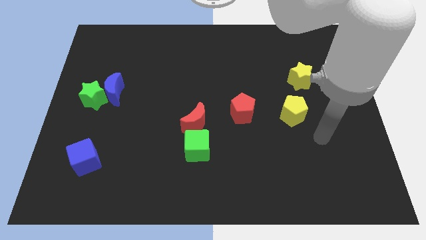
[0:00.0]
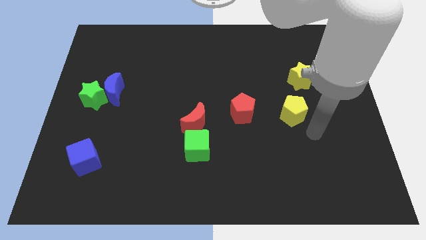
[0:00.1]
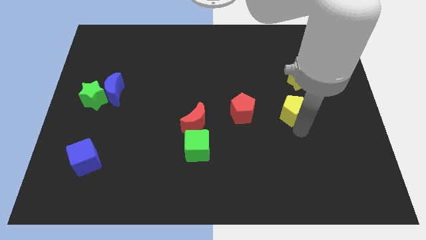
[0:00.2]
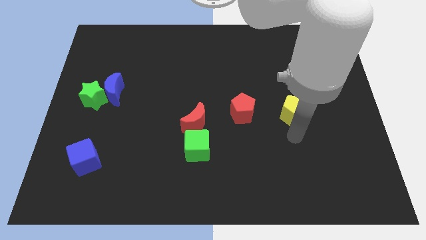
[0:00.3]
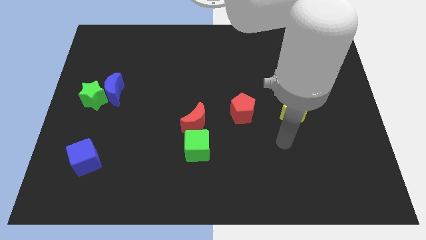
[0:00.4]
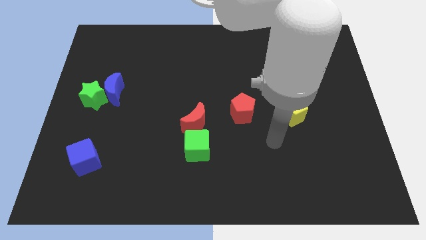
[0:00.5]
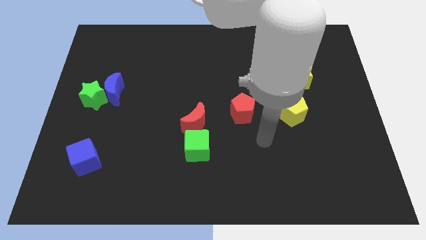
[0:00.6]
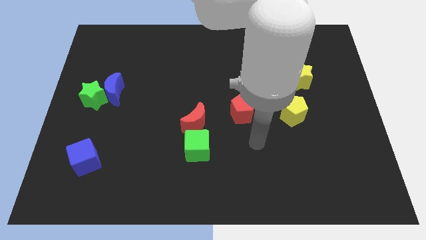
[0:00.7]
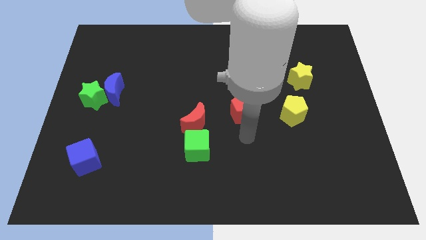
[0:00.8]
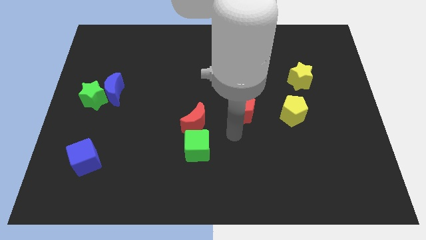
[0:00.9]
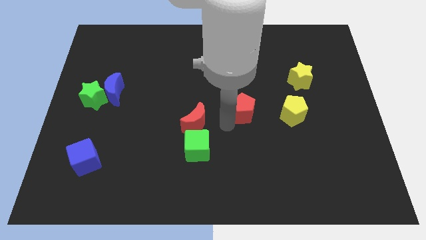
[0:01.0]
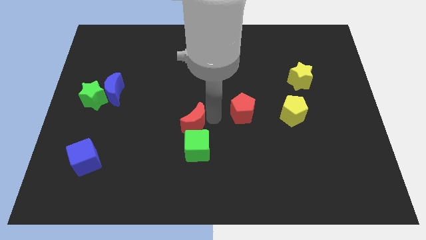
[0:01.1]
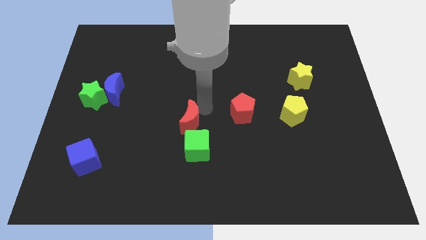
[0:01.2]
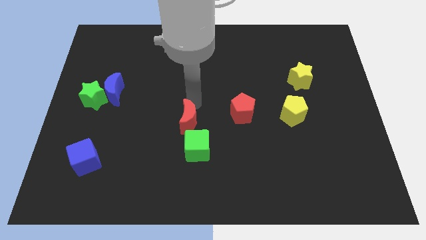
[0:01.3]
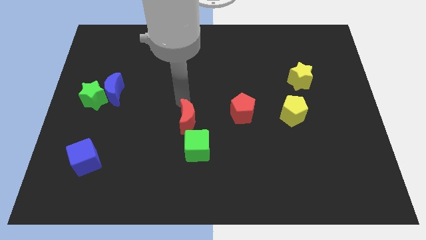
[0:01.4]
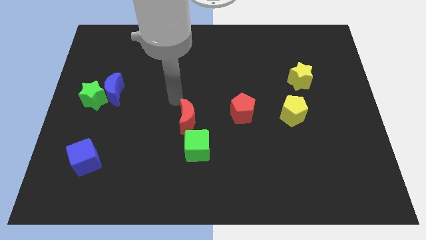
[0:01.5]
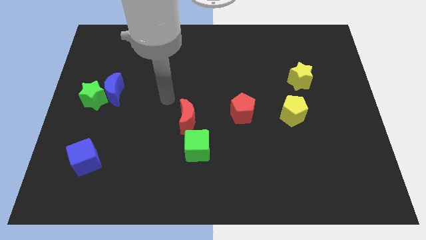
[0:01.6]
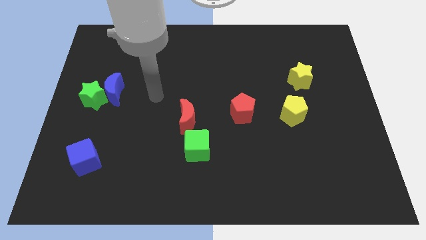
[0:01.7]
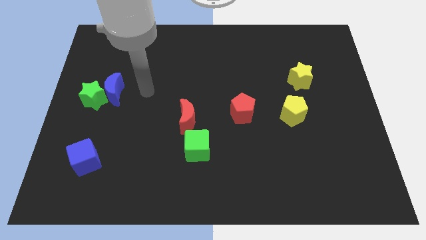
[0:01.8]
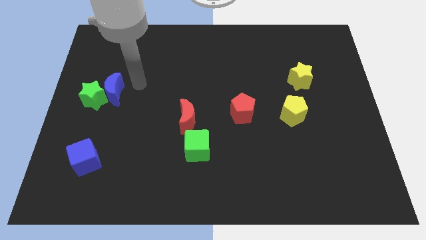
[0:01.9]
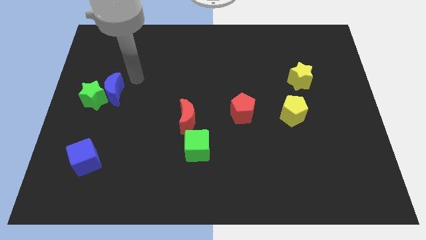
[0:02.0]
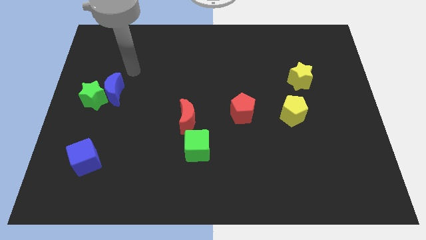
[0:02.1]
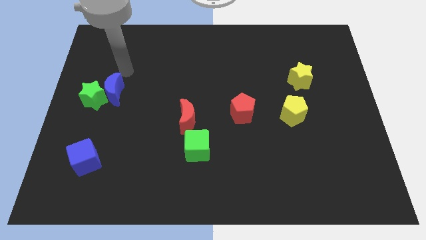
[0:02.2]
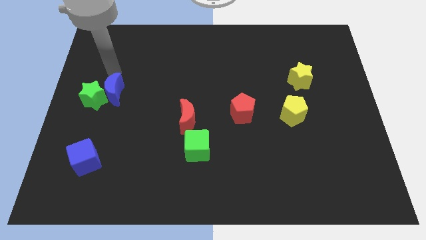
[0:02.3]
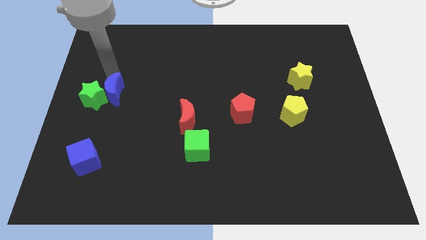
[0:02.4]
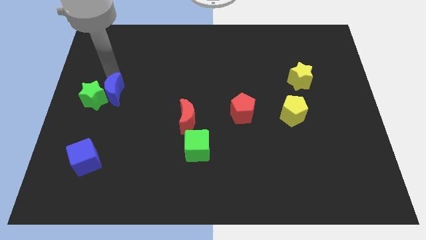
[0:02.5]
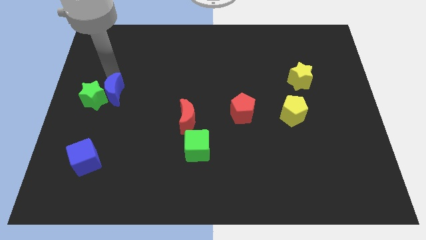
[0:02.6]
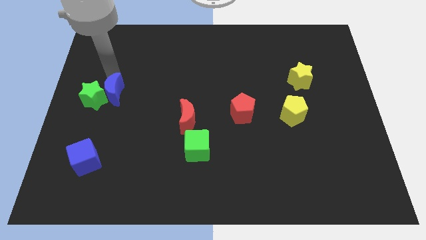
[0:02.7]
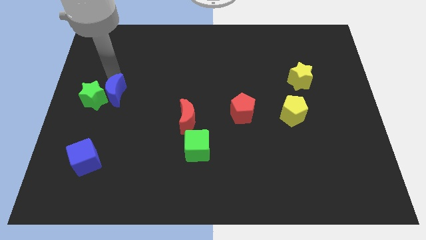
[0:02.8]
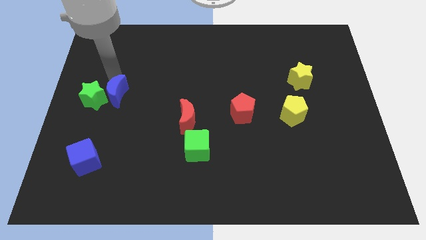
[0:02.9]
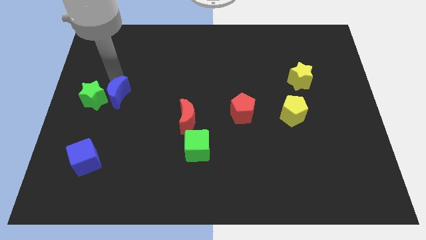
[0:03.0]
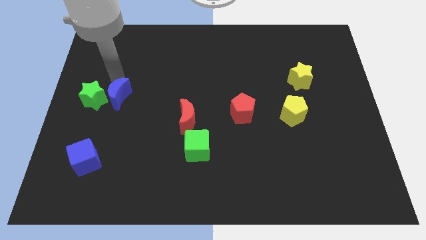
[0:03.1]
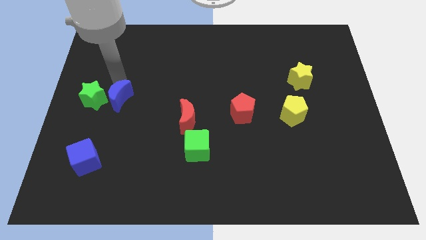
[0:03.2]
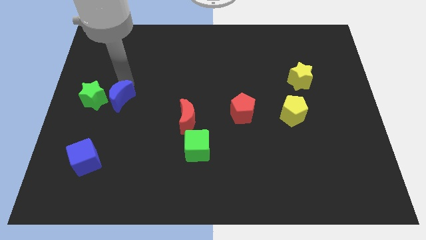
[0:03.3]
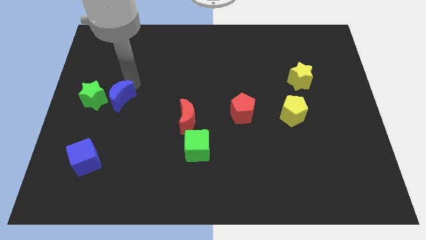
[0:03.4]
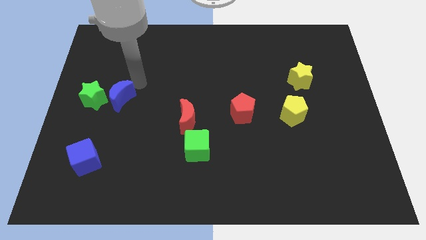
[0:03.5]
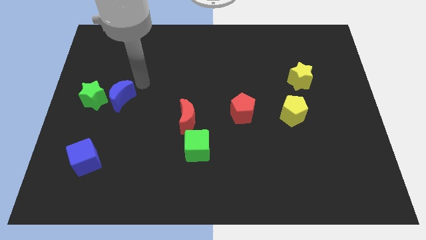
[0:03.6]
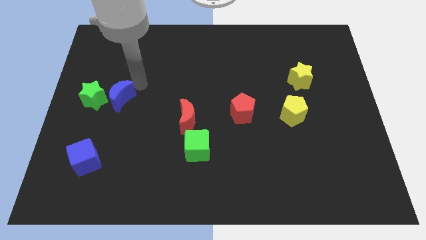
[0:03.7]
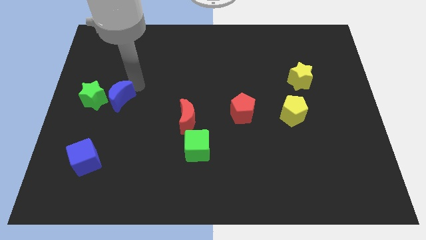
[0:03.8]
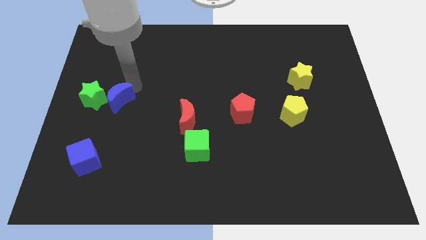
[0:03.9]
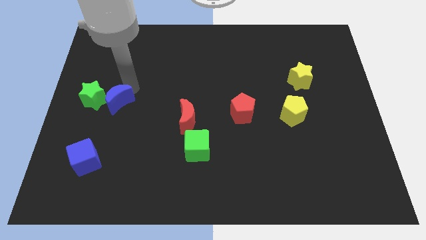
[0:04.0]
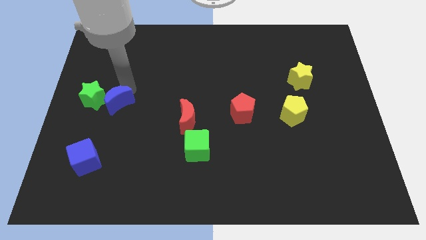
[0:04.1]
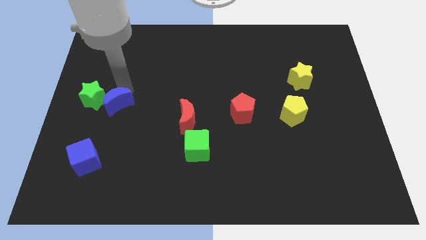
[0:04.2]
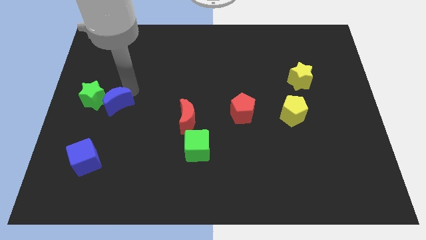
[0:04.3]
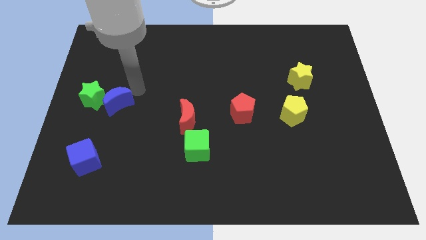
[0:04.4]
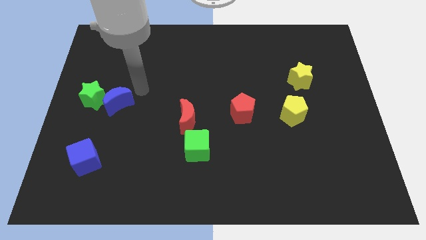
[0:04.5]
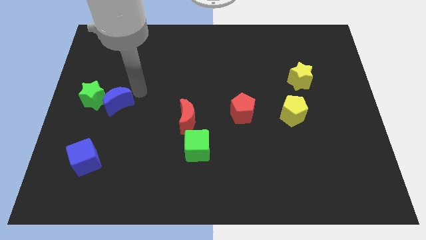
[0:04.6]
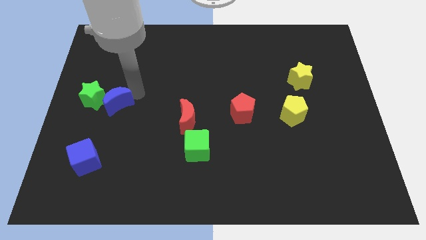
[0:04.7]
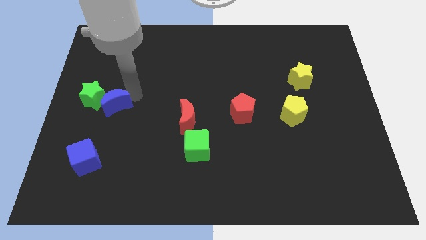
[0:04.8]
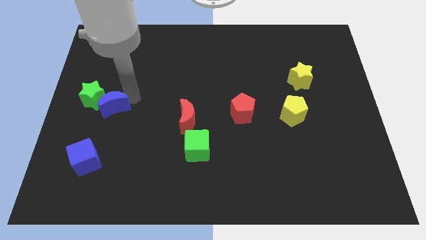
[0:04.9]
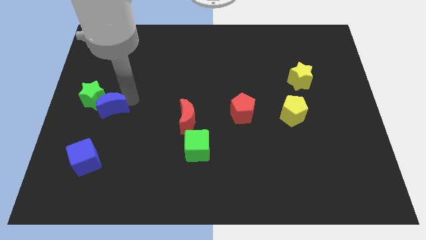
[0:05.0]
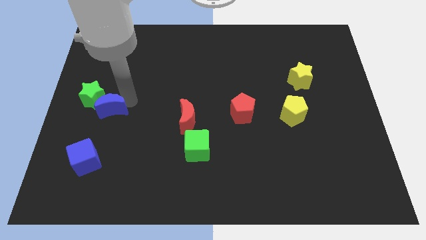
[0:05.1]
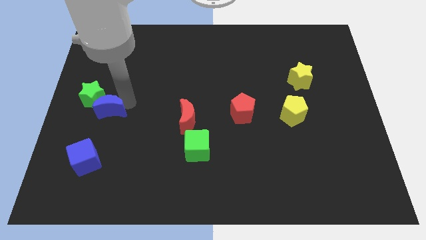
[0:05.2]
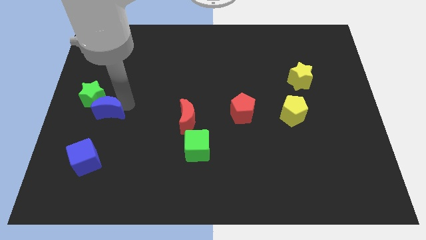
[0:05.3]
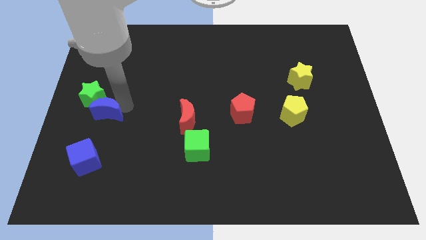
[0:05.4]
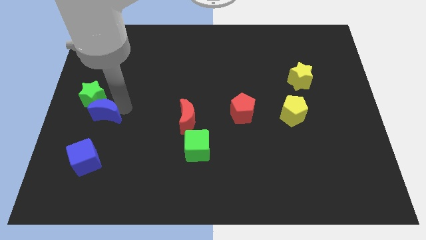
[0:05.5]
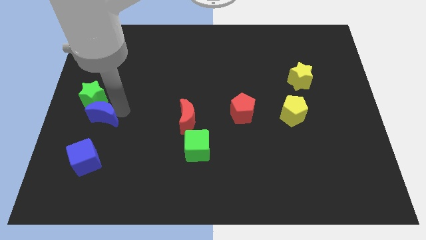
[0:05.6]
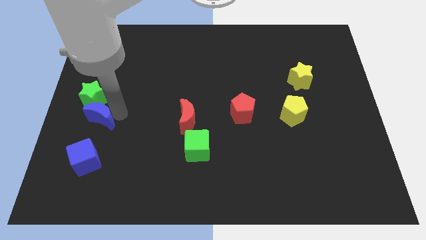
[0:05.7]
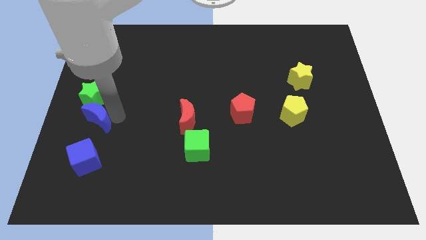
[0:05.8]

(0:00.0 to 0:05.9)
push the blue moon to the left side of the board
